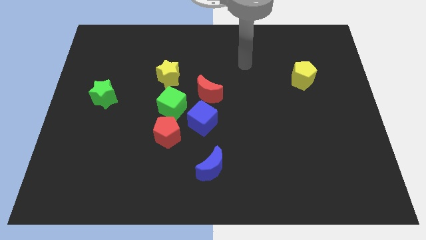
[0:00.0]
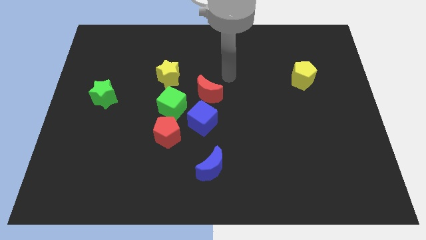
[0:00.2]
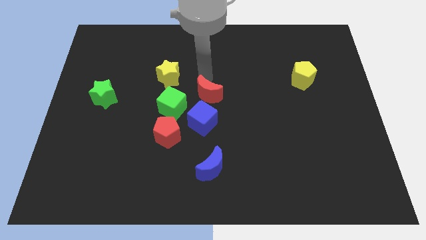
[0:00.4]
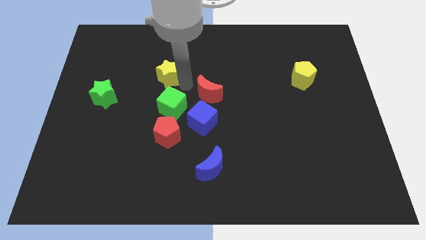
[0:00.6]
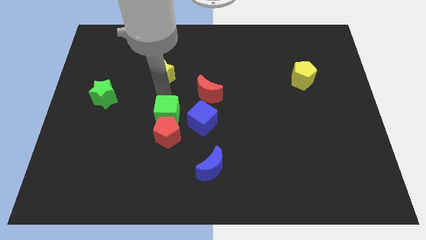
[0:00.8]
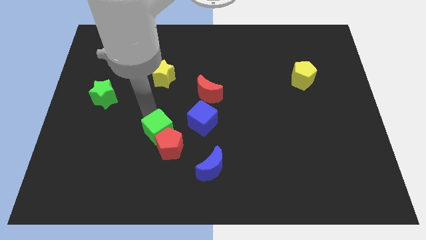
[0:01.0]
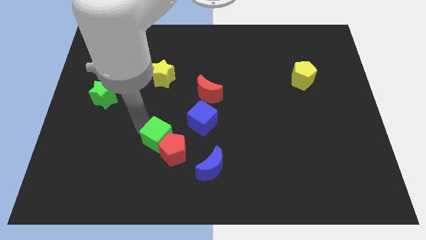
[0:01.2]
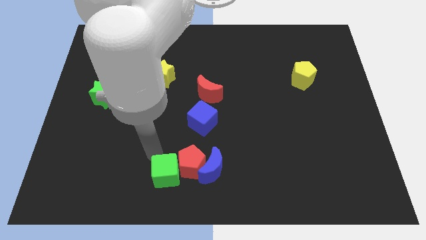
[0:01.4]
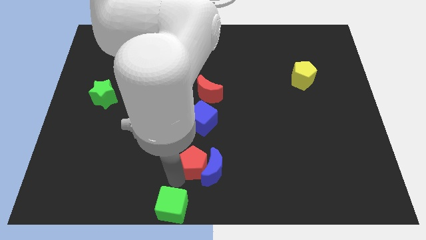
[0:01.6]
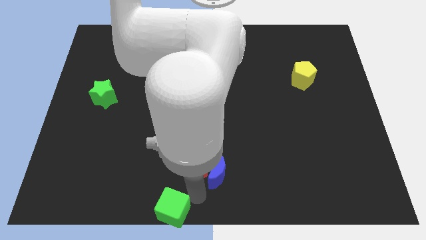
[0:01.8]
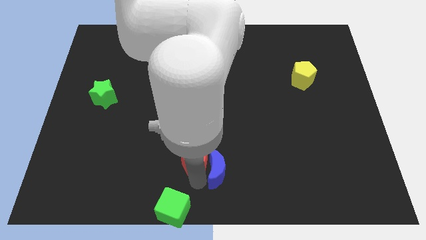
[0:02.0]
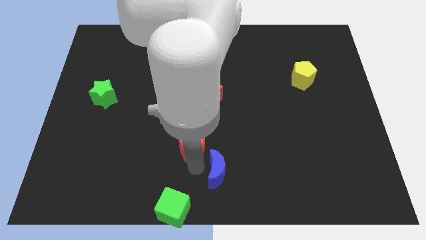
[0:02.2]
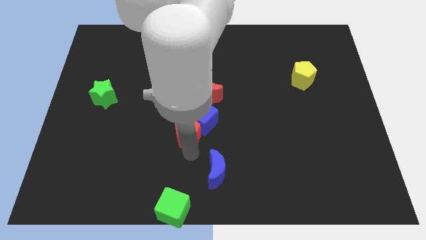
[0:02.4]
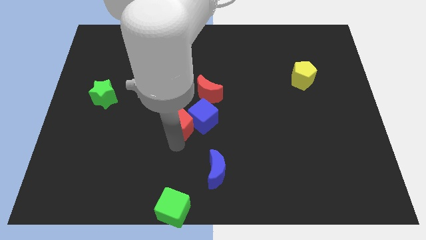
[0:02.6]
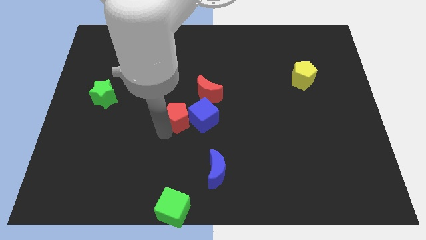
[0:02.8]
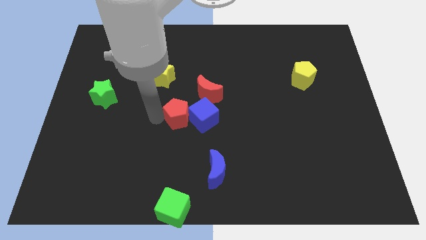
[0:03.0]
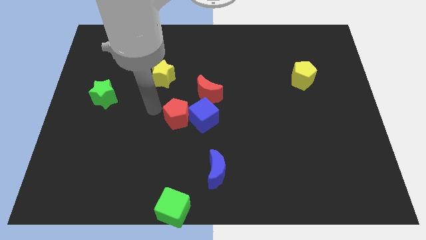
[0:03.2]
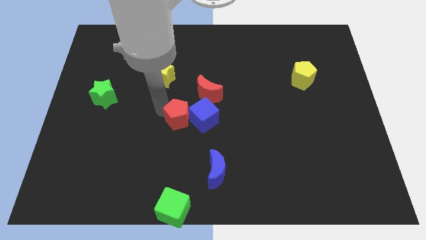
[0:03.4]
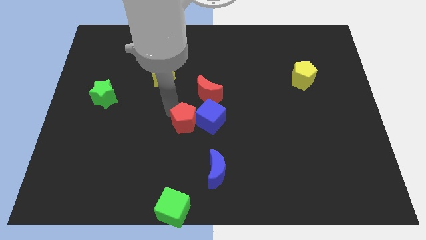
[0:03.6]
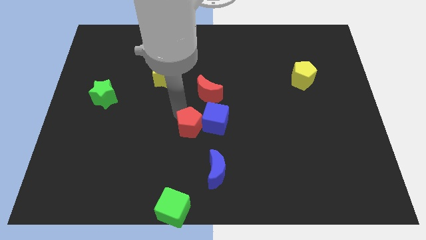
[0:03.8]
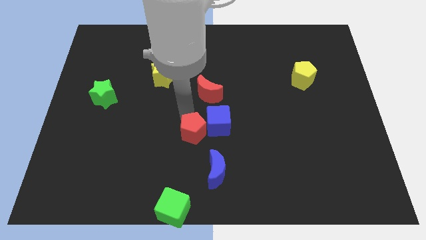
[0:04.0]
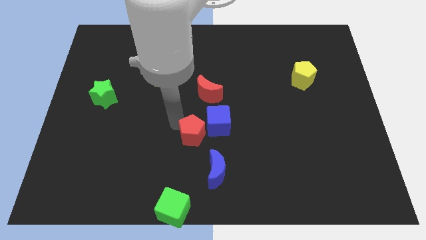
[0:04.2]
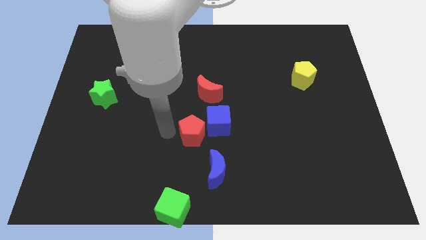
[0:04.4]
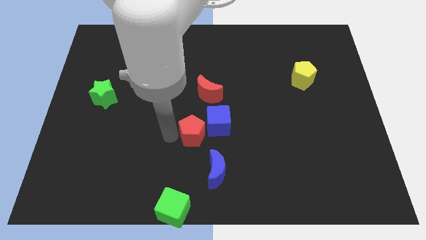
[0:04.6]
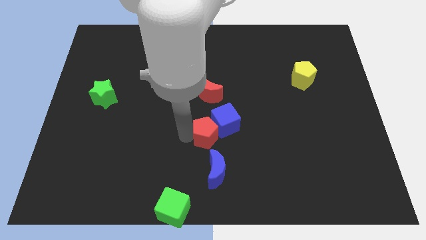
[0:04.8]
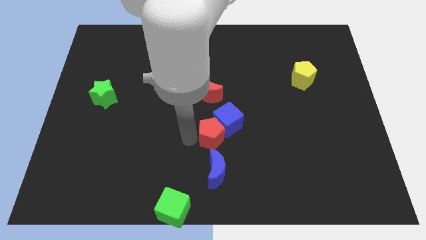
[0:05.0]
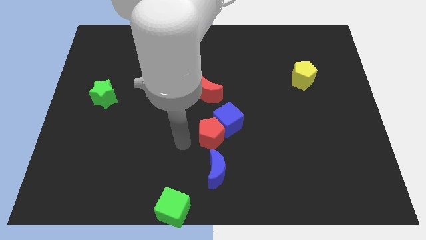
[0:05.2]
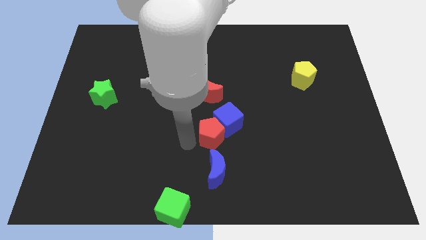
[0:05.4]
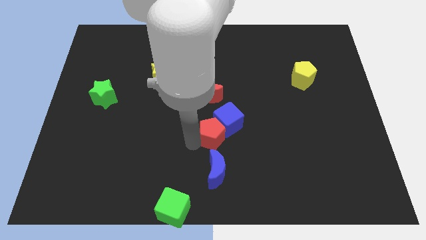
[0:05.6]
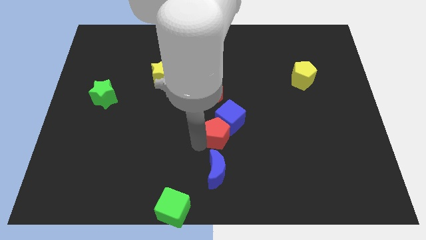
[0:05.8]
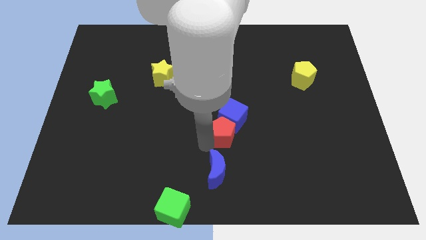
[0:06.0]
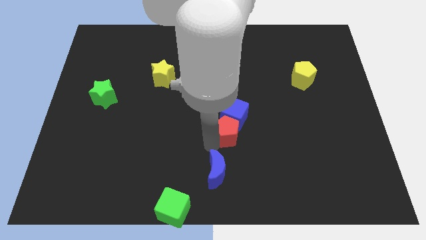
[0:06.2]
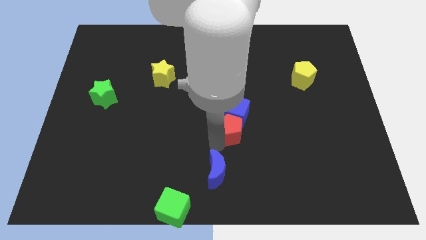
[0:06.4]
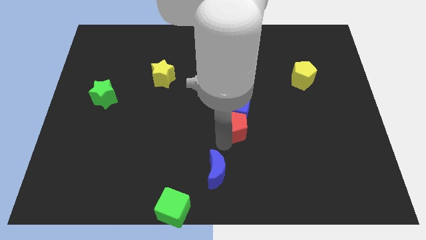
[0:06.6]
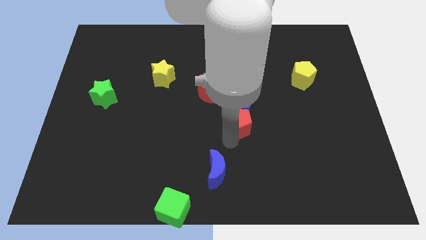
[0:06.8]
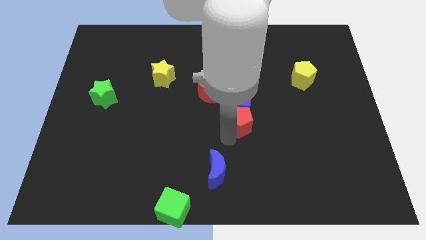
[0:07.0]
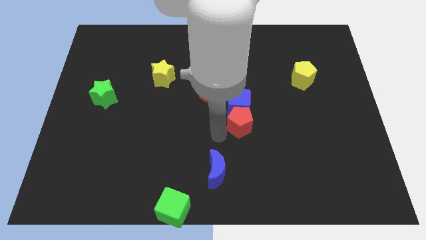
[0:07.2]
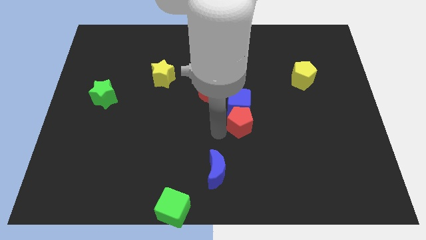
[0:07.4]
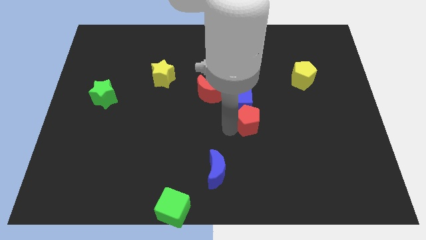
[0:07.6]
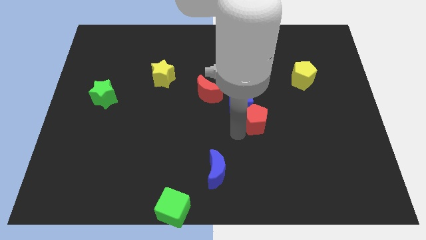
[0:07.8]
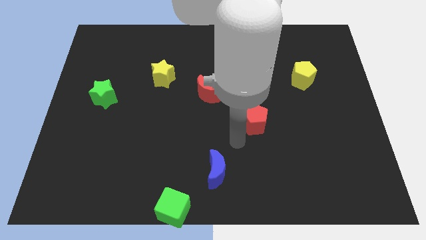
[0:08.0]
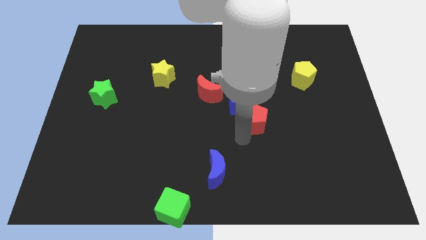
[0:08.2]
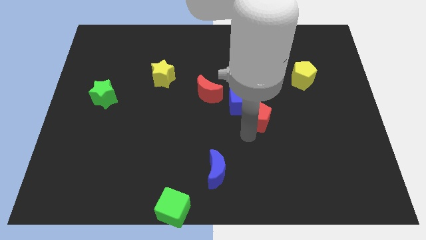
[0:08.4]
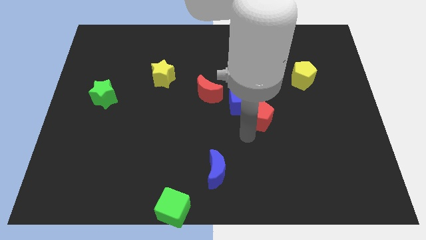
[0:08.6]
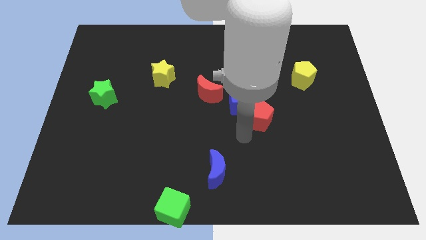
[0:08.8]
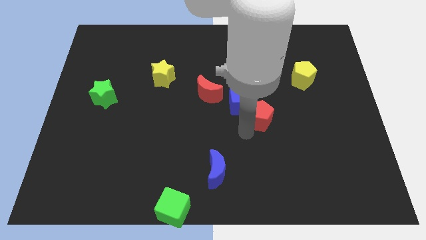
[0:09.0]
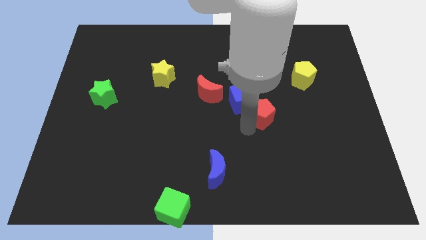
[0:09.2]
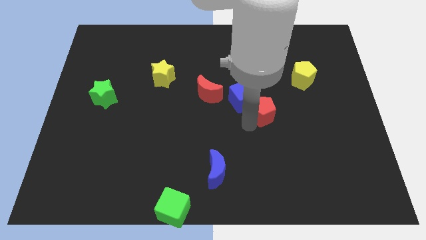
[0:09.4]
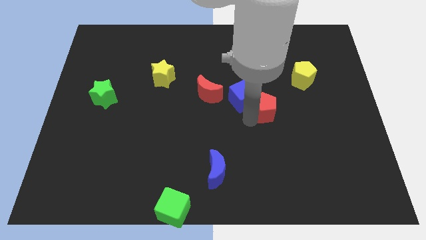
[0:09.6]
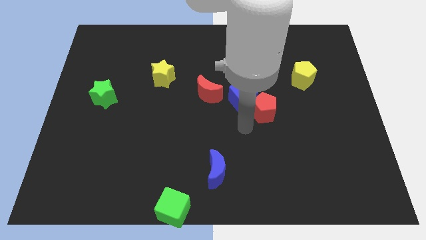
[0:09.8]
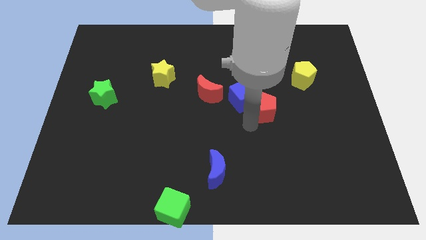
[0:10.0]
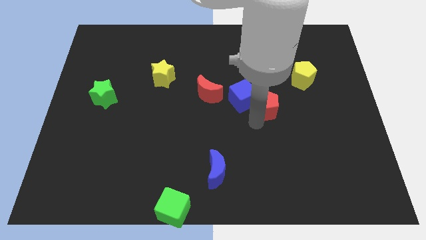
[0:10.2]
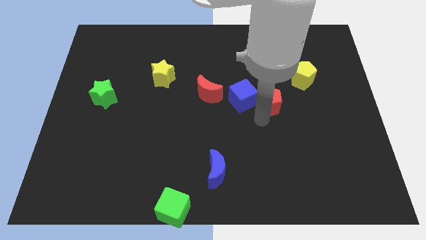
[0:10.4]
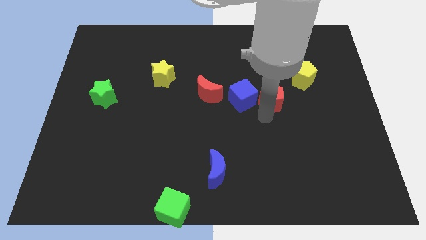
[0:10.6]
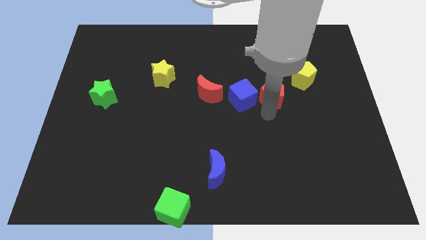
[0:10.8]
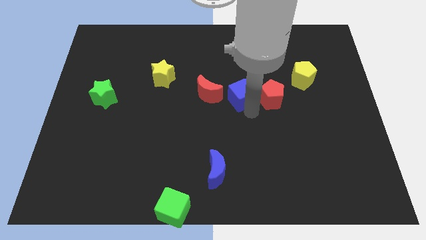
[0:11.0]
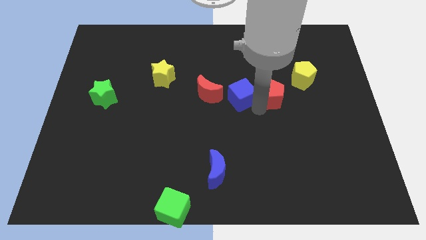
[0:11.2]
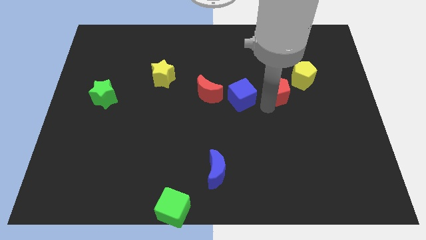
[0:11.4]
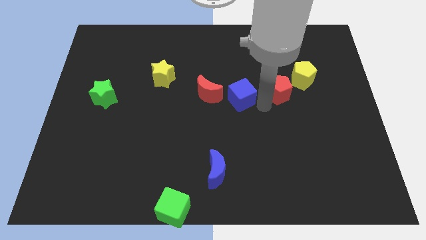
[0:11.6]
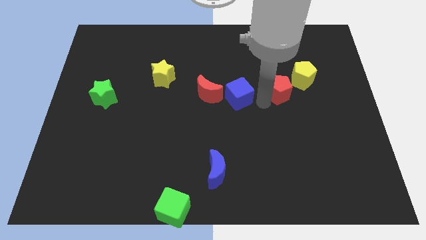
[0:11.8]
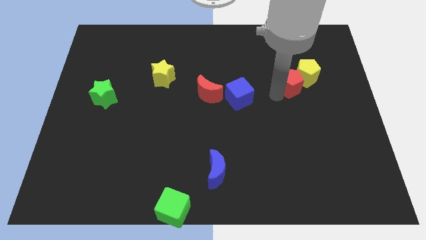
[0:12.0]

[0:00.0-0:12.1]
push the red pentagon towards the yellow pentagon
